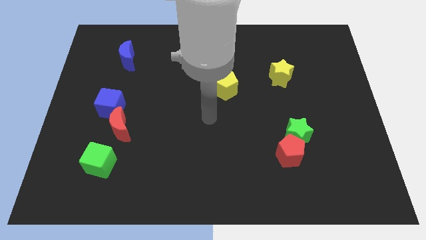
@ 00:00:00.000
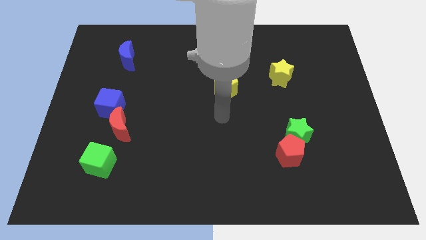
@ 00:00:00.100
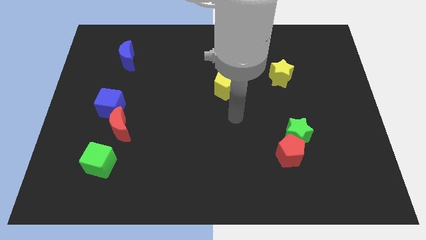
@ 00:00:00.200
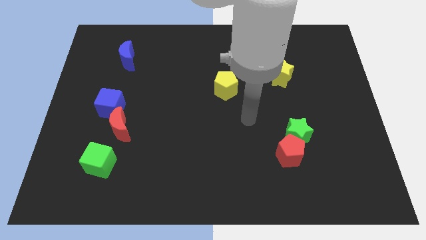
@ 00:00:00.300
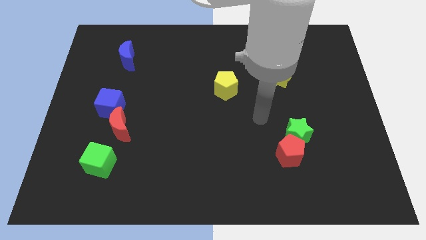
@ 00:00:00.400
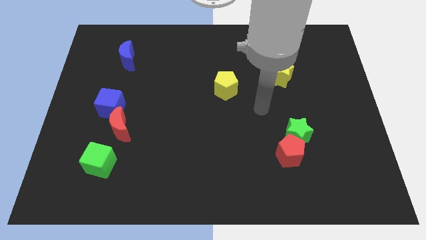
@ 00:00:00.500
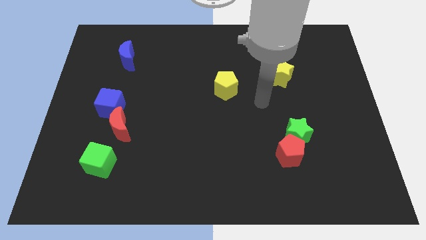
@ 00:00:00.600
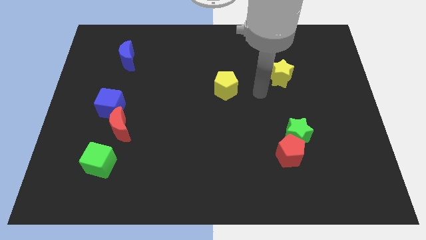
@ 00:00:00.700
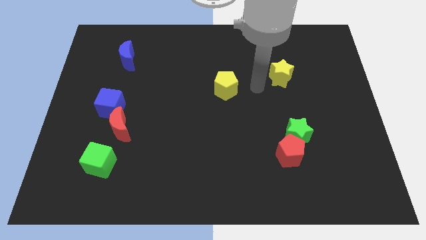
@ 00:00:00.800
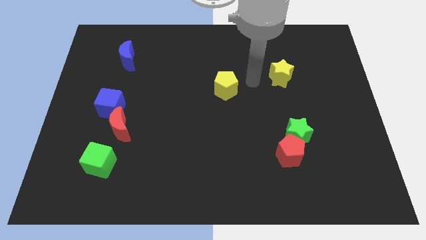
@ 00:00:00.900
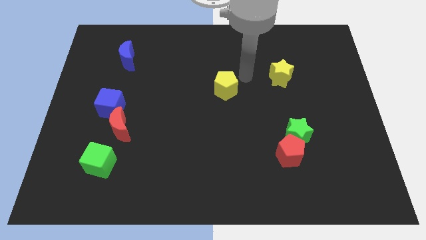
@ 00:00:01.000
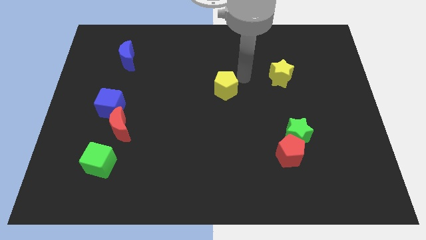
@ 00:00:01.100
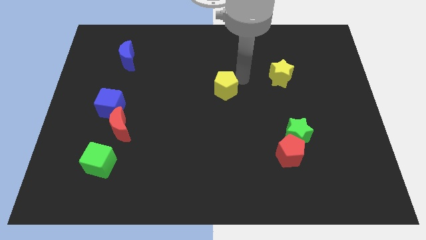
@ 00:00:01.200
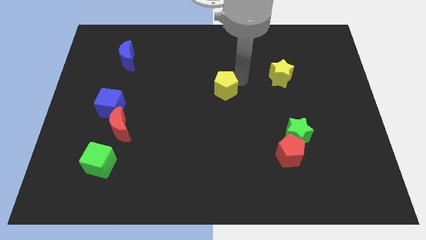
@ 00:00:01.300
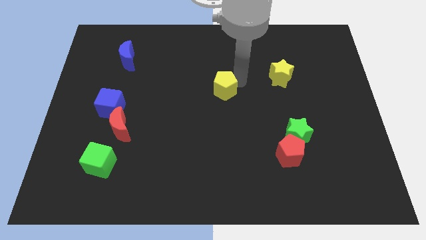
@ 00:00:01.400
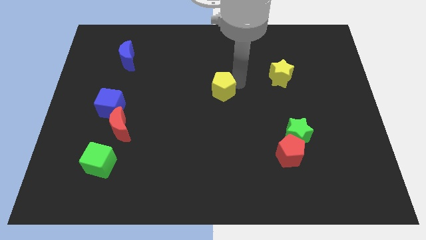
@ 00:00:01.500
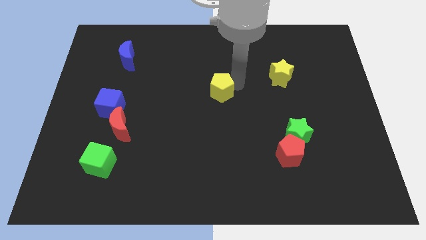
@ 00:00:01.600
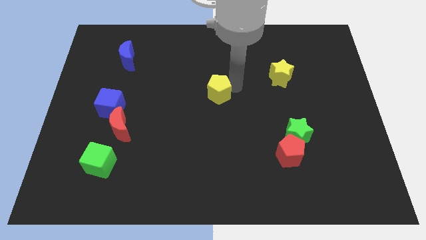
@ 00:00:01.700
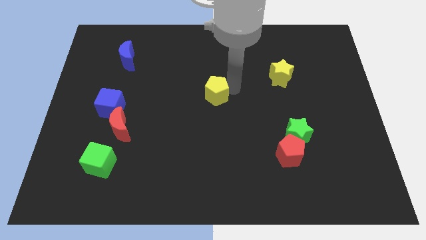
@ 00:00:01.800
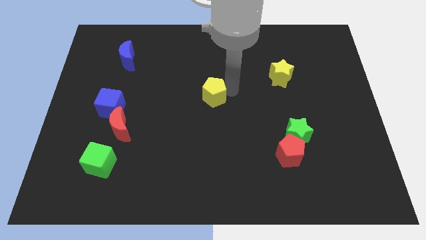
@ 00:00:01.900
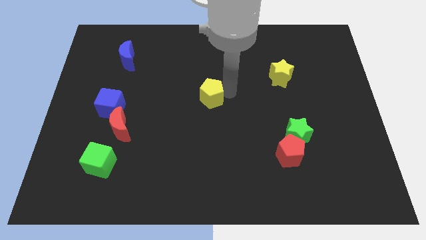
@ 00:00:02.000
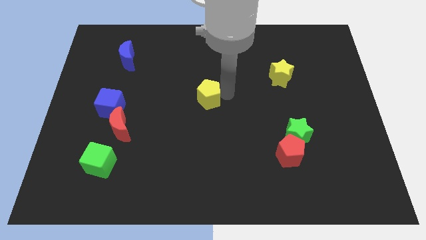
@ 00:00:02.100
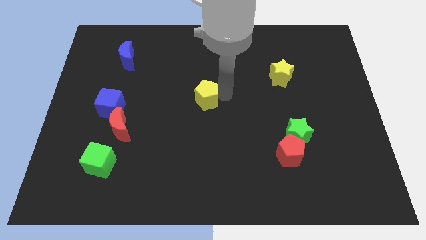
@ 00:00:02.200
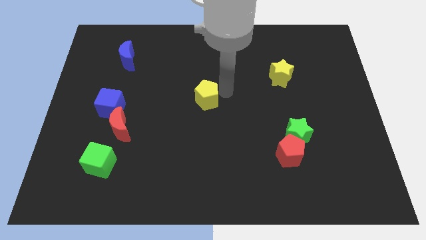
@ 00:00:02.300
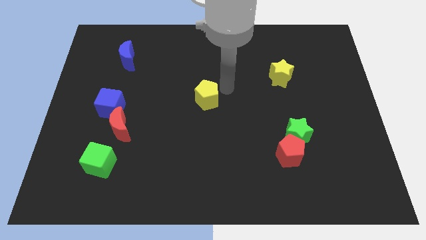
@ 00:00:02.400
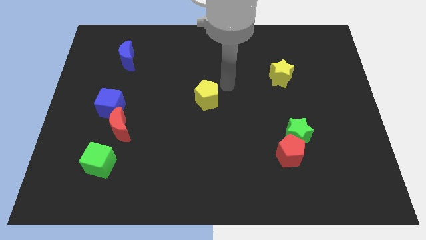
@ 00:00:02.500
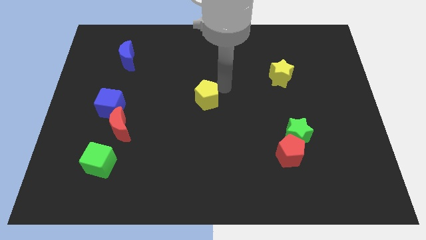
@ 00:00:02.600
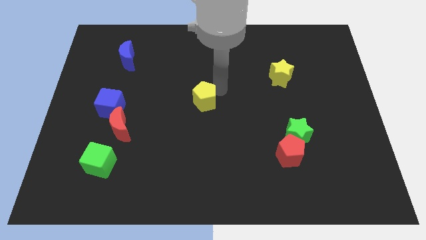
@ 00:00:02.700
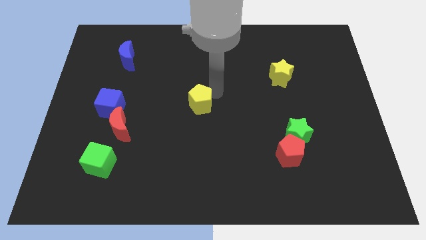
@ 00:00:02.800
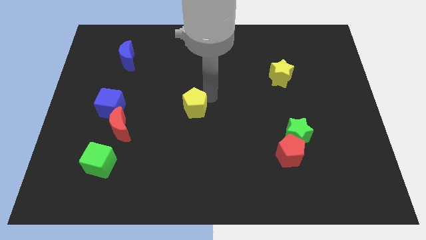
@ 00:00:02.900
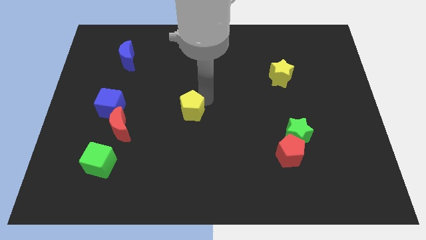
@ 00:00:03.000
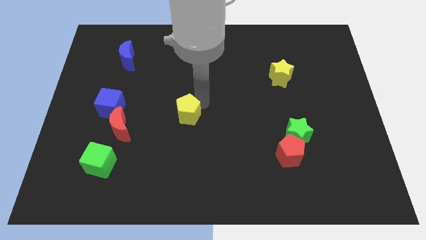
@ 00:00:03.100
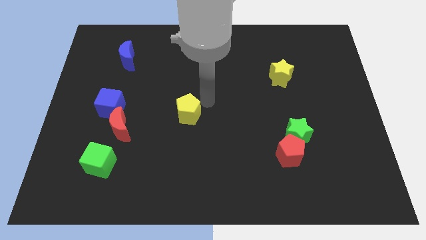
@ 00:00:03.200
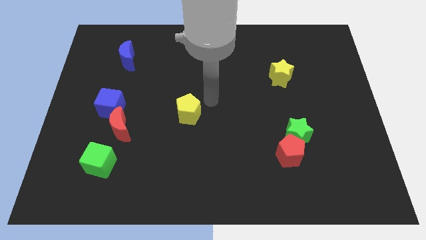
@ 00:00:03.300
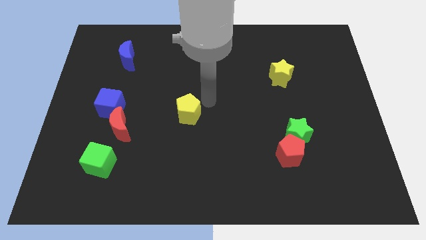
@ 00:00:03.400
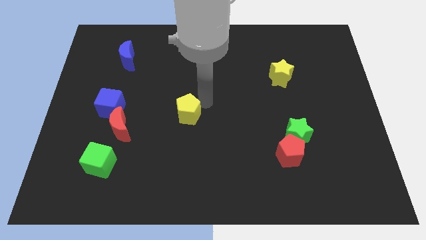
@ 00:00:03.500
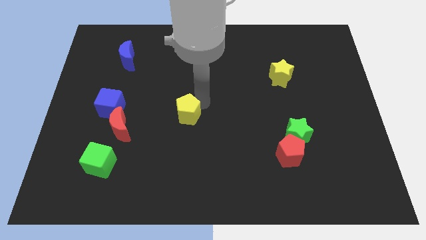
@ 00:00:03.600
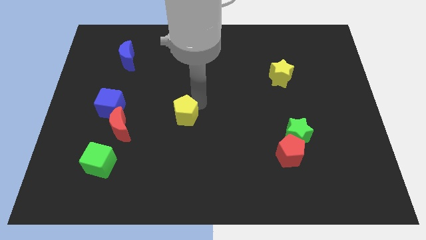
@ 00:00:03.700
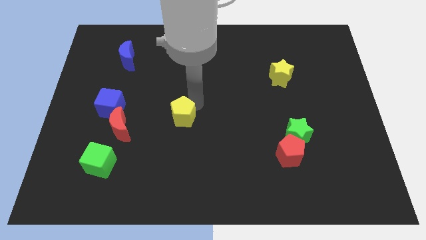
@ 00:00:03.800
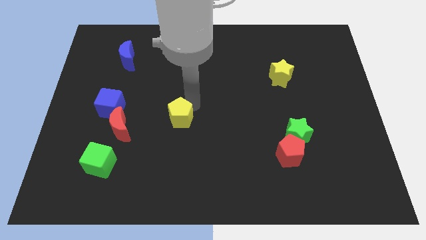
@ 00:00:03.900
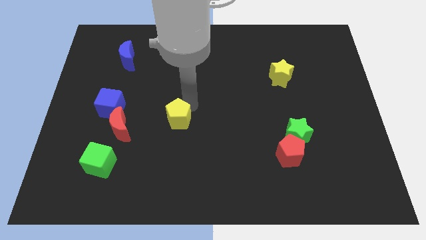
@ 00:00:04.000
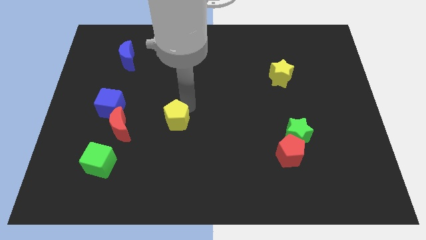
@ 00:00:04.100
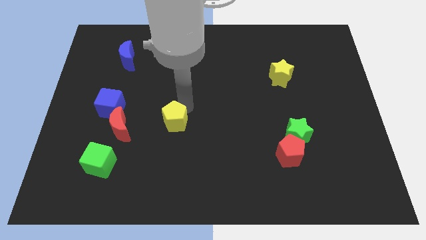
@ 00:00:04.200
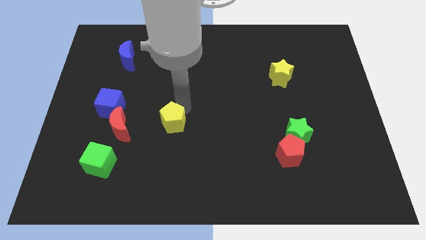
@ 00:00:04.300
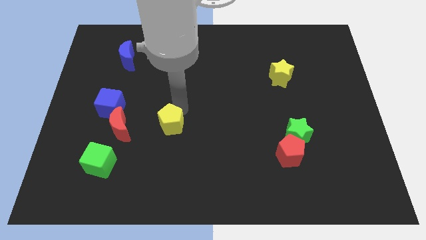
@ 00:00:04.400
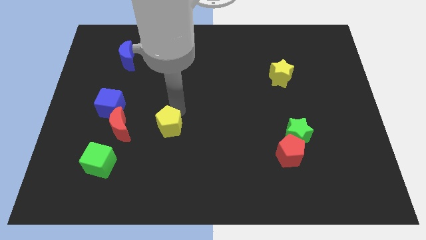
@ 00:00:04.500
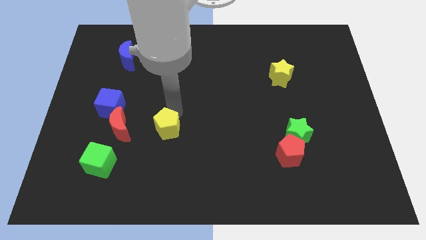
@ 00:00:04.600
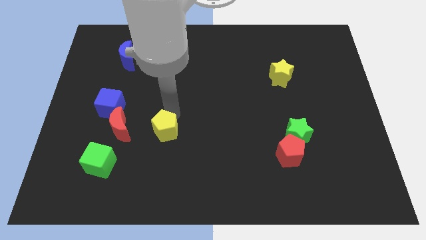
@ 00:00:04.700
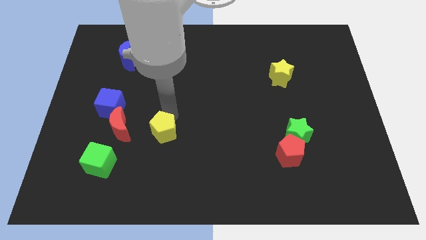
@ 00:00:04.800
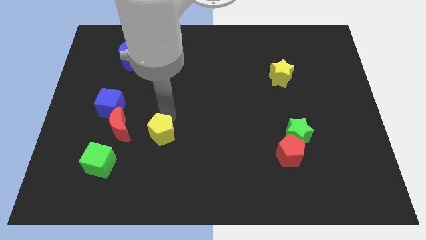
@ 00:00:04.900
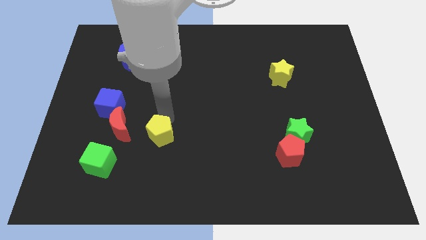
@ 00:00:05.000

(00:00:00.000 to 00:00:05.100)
slide the yellow pentagon down and then left

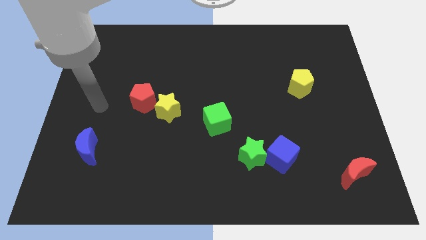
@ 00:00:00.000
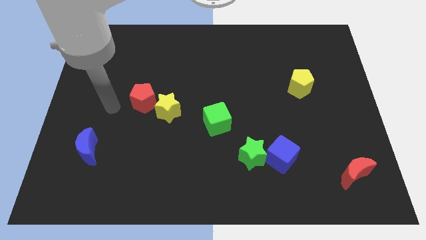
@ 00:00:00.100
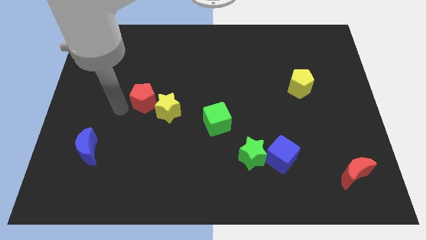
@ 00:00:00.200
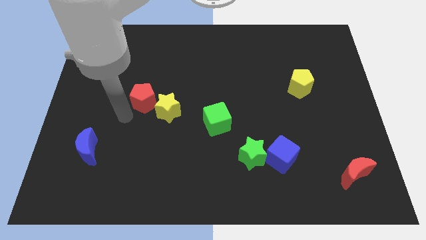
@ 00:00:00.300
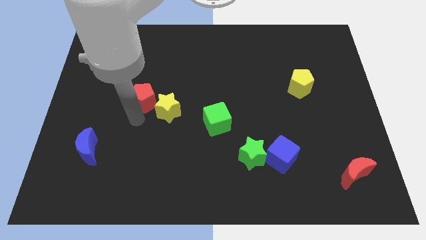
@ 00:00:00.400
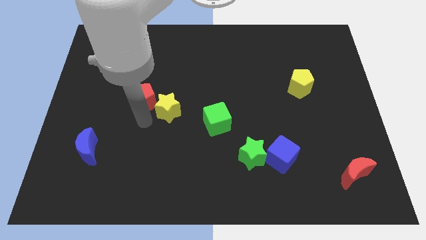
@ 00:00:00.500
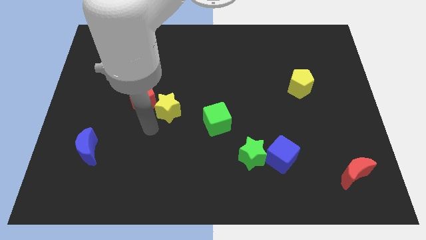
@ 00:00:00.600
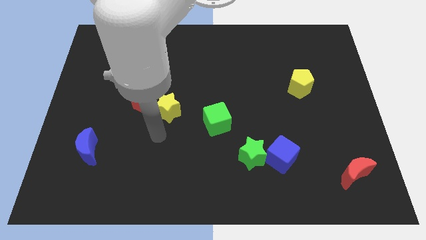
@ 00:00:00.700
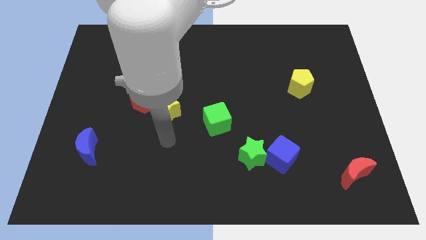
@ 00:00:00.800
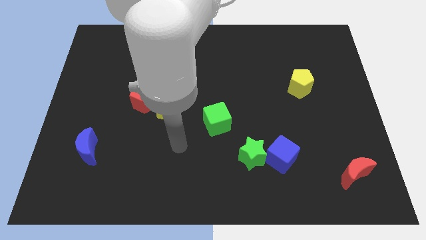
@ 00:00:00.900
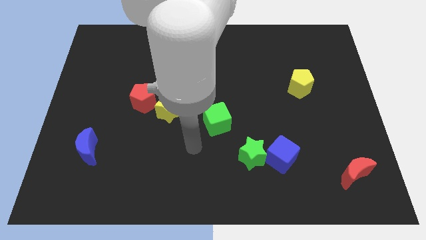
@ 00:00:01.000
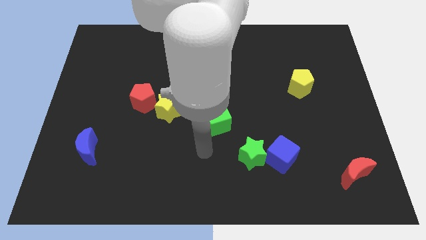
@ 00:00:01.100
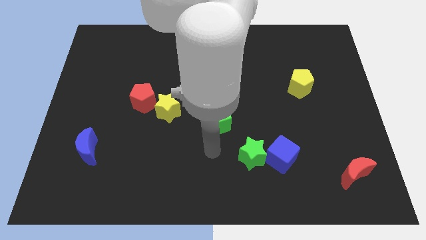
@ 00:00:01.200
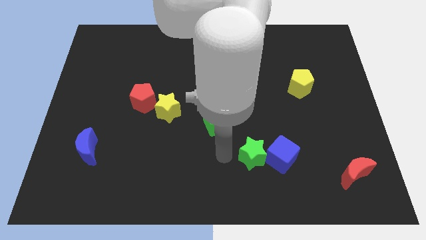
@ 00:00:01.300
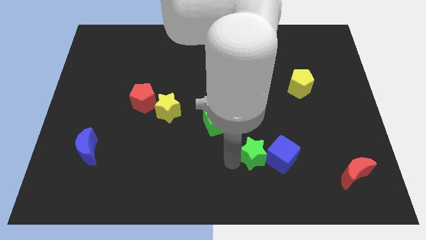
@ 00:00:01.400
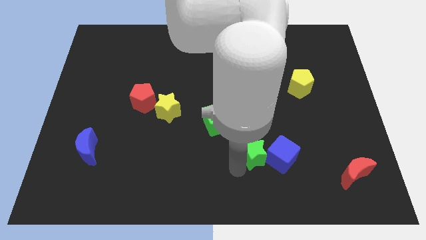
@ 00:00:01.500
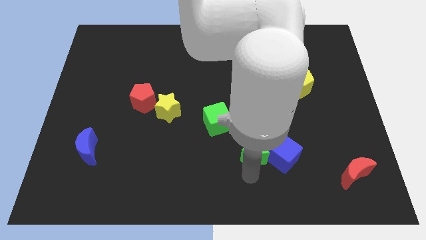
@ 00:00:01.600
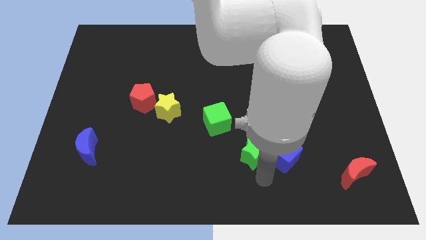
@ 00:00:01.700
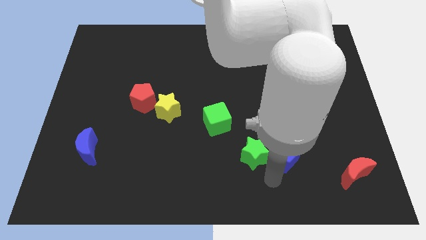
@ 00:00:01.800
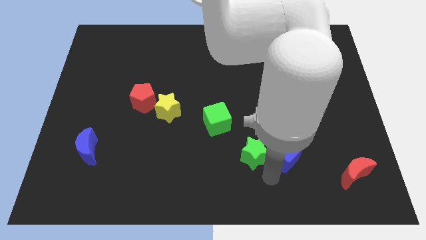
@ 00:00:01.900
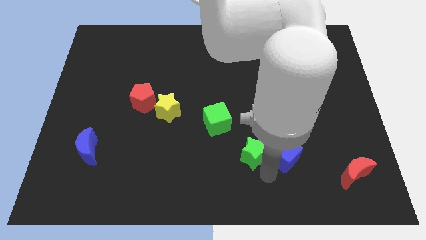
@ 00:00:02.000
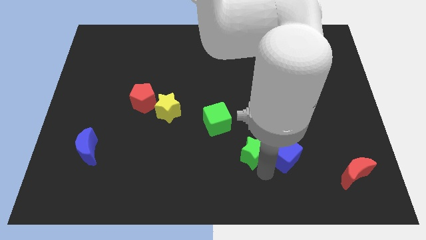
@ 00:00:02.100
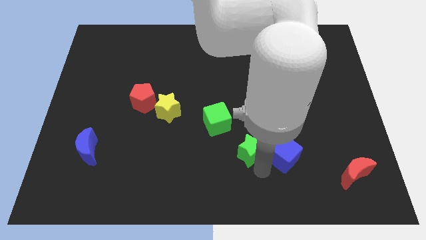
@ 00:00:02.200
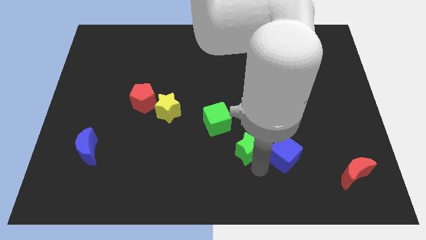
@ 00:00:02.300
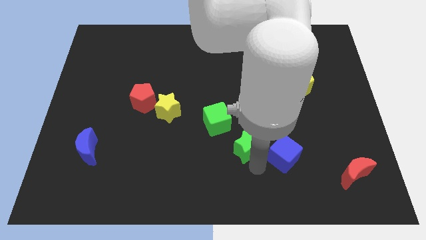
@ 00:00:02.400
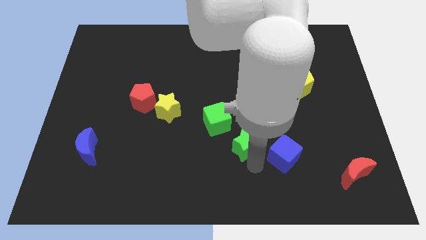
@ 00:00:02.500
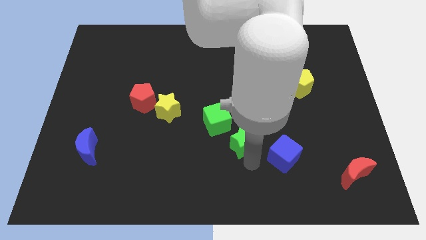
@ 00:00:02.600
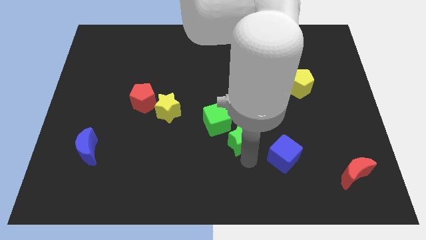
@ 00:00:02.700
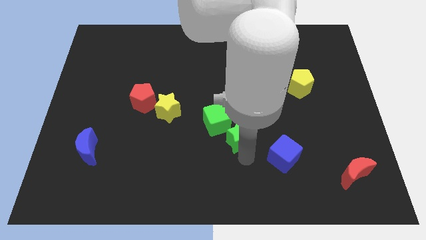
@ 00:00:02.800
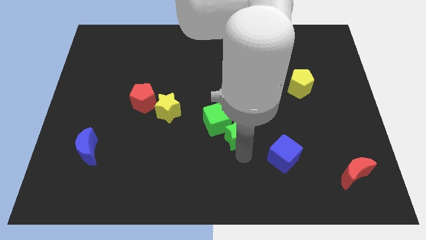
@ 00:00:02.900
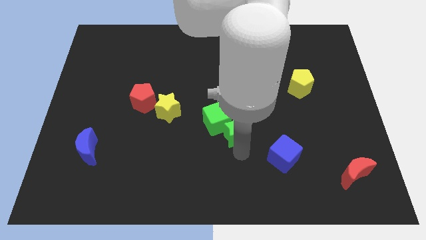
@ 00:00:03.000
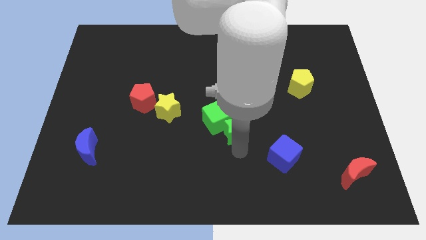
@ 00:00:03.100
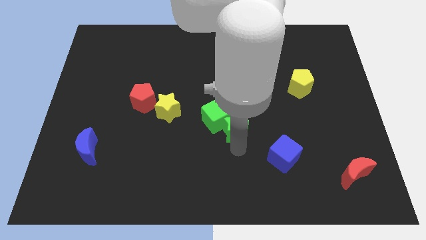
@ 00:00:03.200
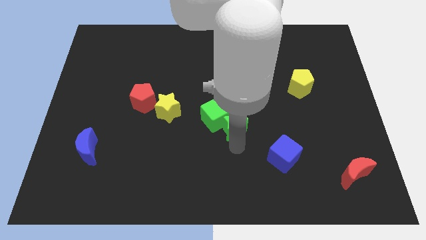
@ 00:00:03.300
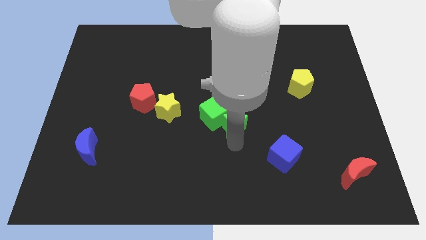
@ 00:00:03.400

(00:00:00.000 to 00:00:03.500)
slide the green star somewhat up
